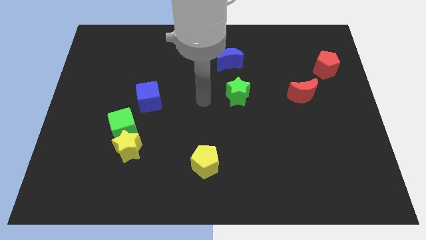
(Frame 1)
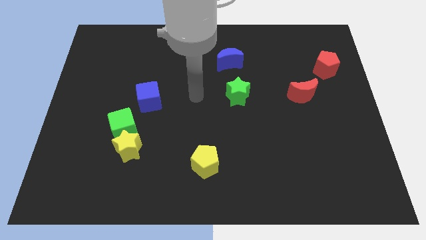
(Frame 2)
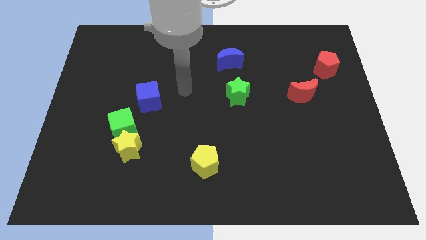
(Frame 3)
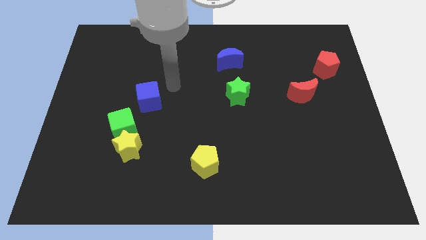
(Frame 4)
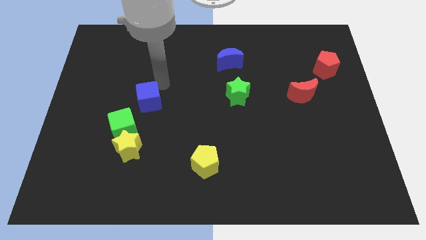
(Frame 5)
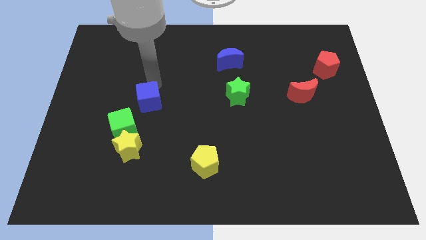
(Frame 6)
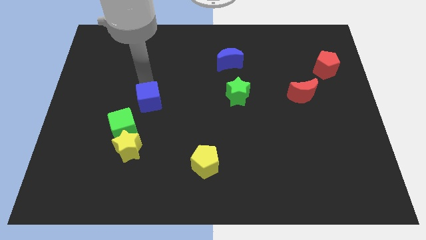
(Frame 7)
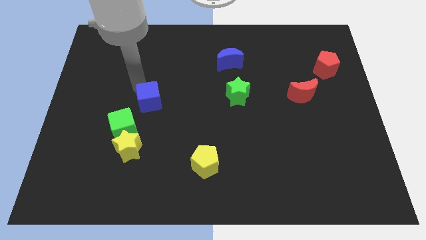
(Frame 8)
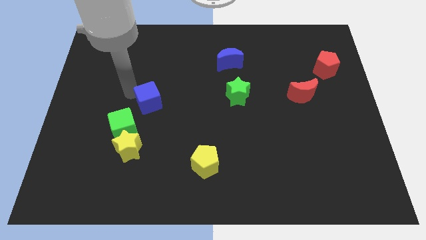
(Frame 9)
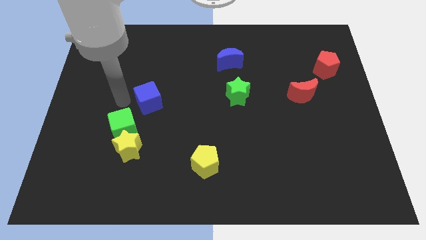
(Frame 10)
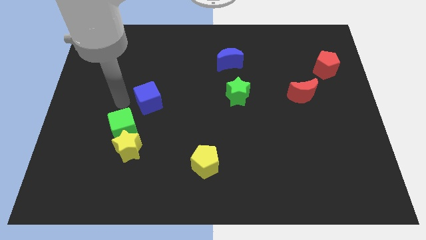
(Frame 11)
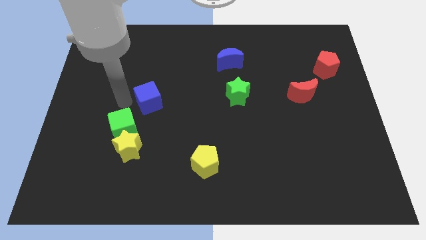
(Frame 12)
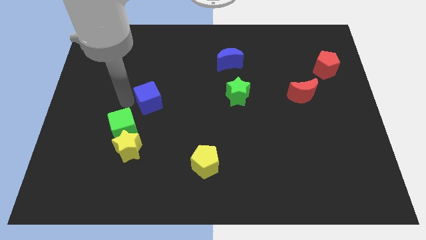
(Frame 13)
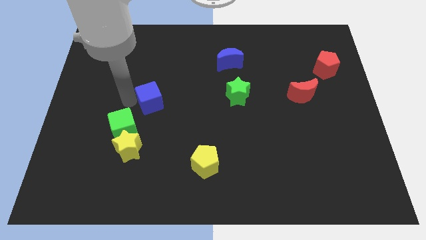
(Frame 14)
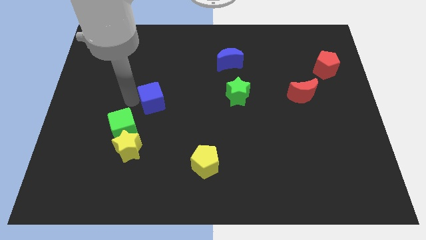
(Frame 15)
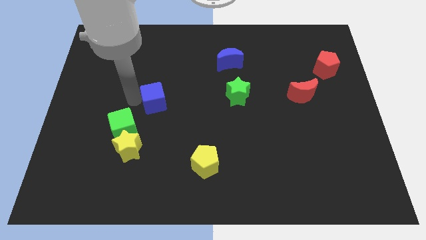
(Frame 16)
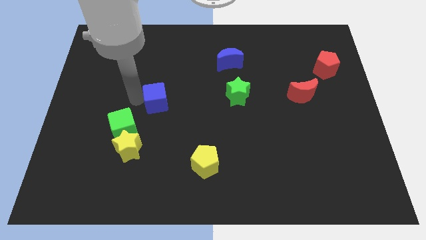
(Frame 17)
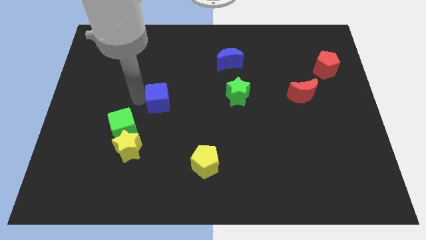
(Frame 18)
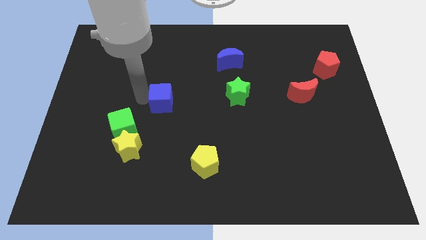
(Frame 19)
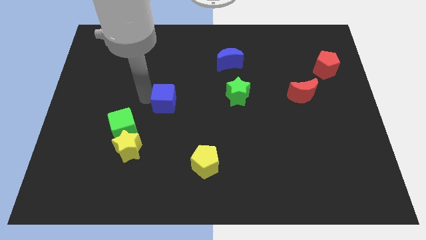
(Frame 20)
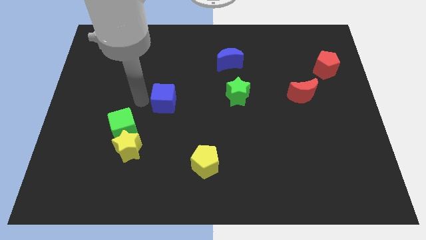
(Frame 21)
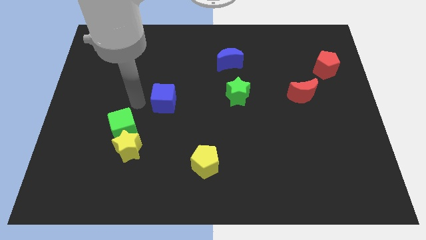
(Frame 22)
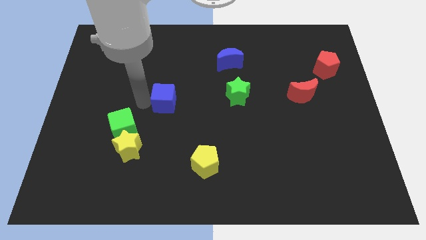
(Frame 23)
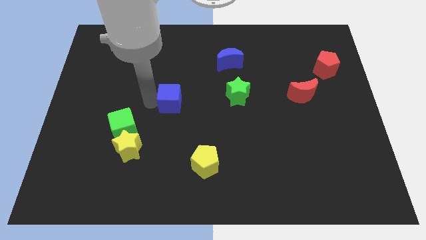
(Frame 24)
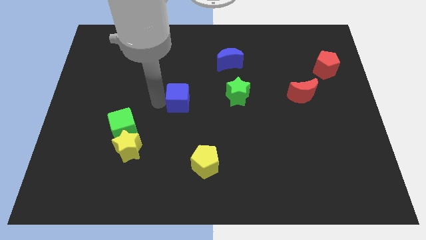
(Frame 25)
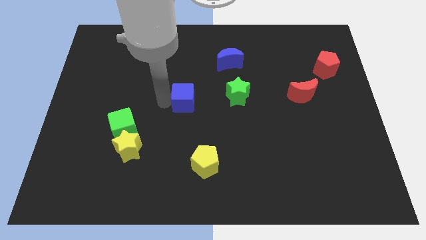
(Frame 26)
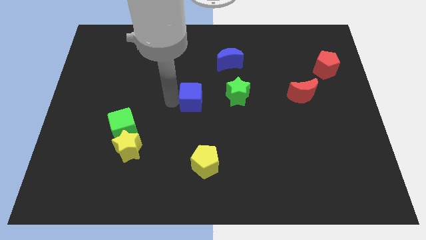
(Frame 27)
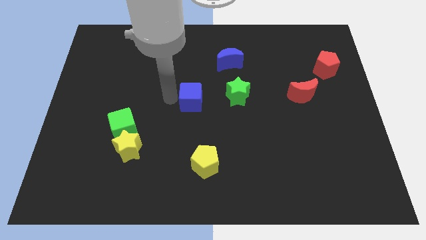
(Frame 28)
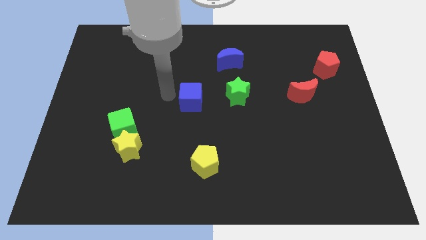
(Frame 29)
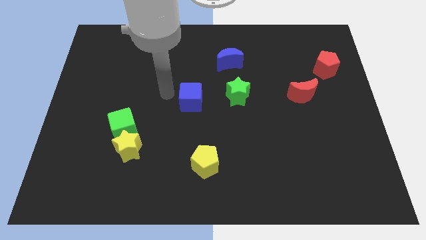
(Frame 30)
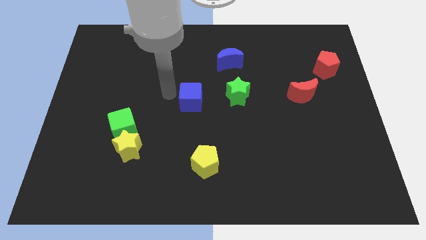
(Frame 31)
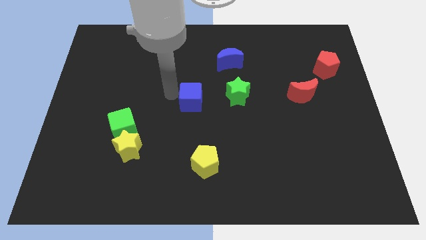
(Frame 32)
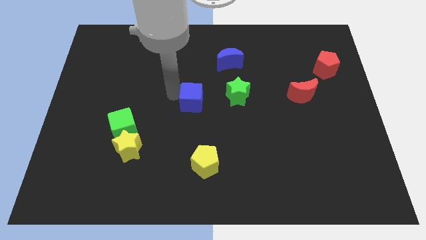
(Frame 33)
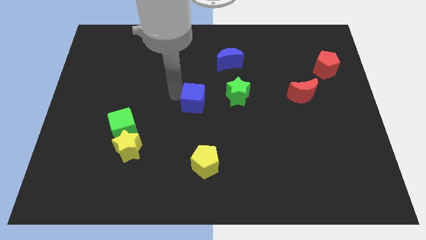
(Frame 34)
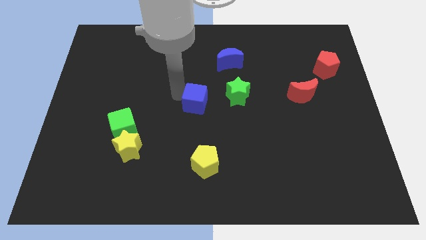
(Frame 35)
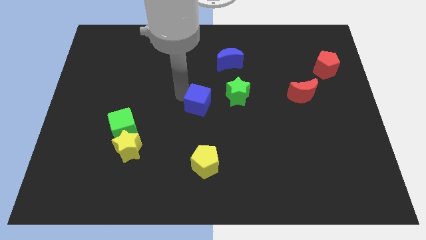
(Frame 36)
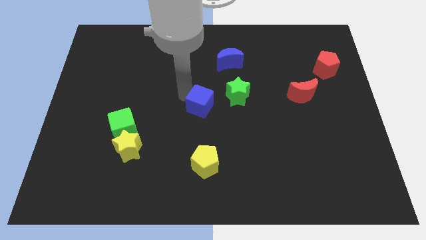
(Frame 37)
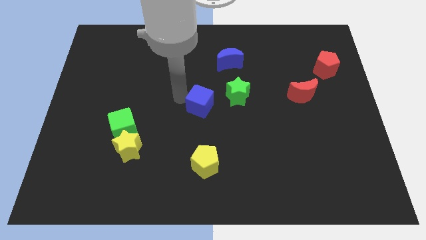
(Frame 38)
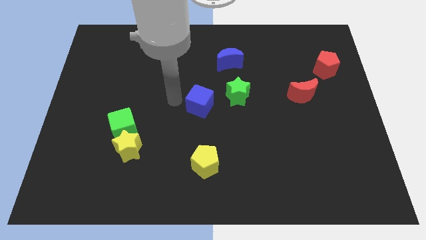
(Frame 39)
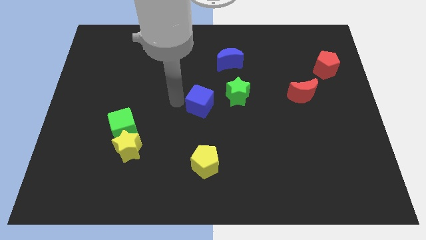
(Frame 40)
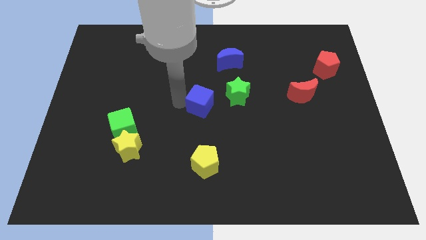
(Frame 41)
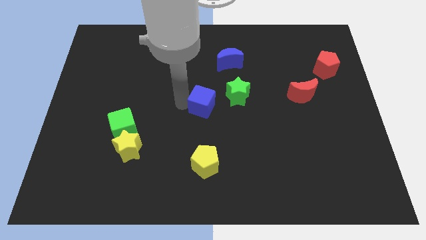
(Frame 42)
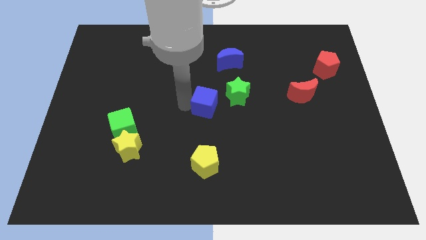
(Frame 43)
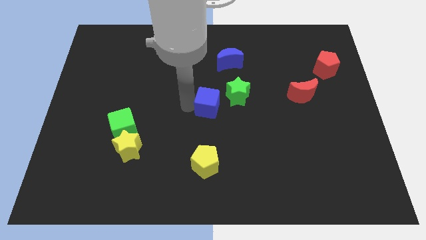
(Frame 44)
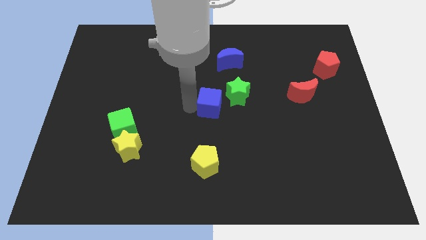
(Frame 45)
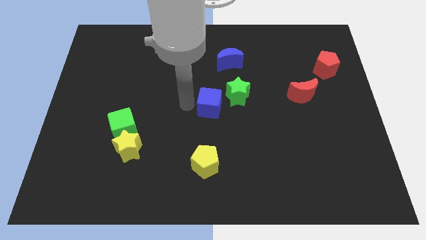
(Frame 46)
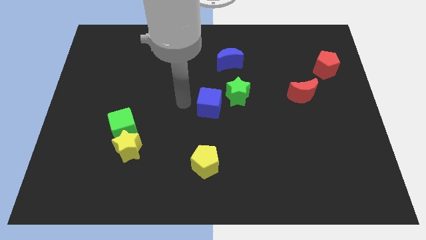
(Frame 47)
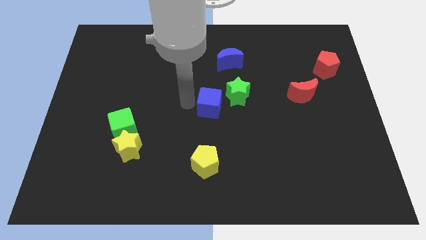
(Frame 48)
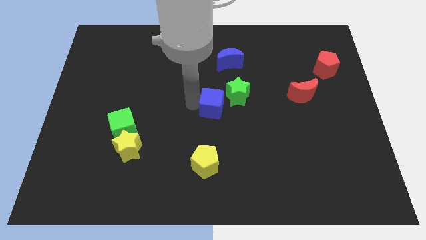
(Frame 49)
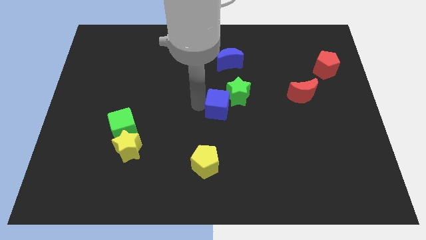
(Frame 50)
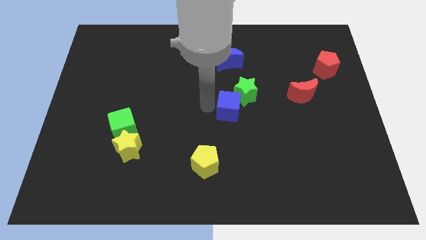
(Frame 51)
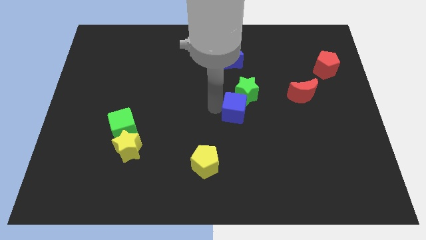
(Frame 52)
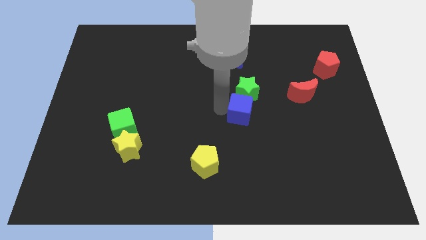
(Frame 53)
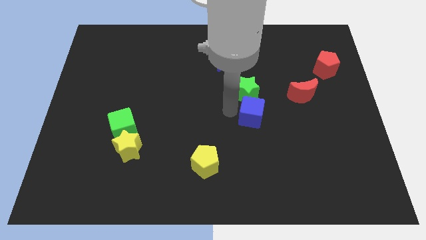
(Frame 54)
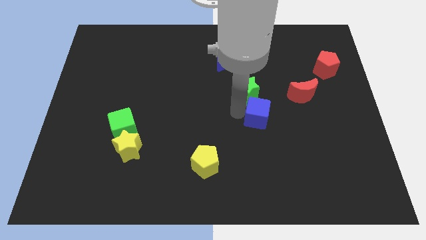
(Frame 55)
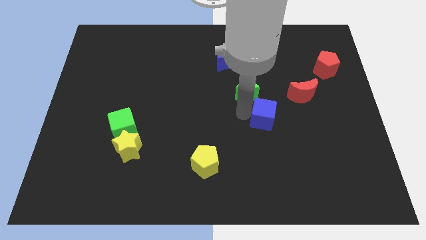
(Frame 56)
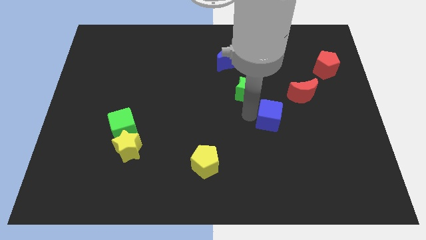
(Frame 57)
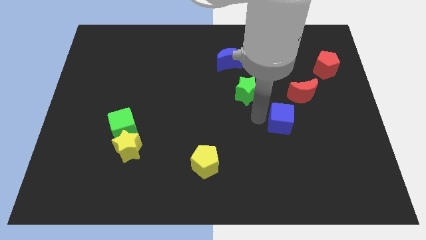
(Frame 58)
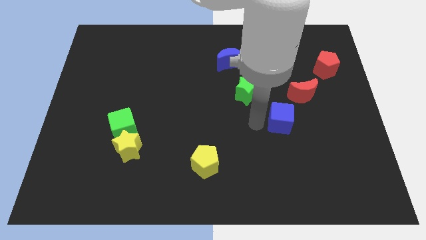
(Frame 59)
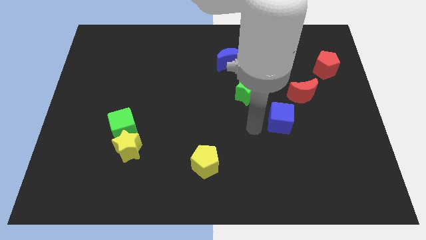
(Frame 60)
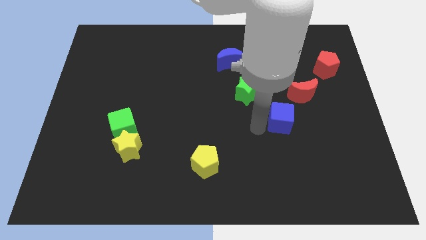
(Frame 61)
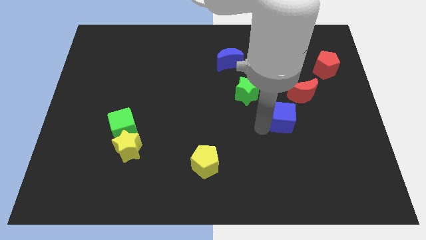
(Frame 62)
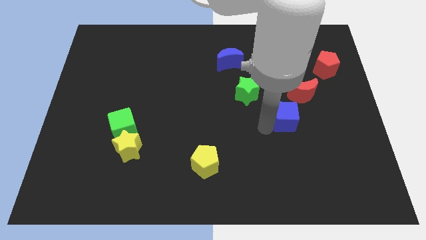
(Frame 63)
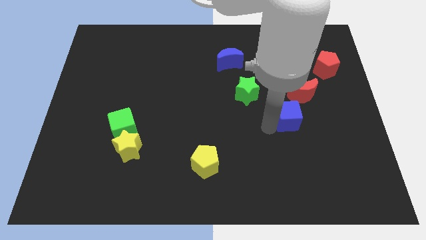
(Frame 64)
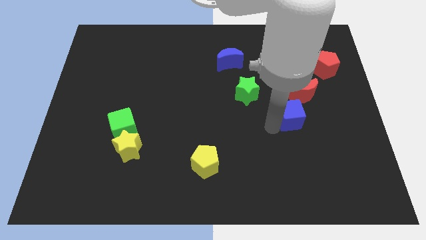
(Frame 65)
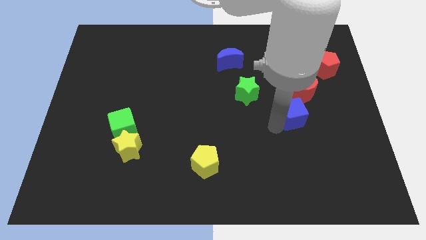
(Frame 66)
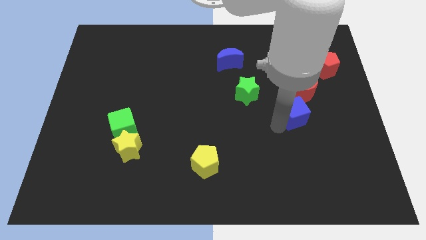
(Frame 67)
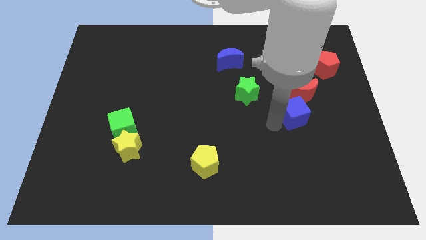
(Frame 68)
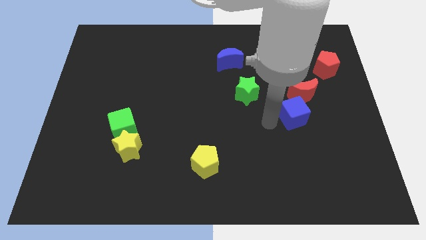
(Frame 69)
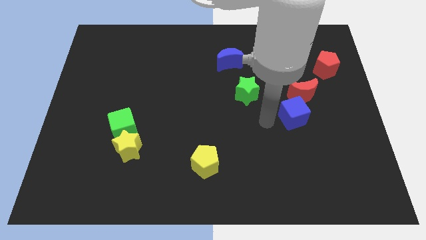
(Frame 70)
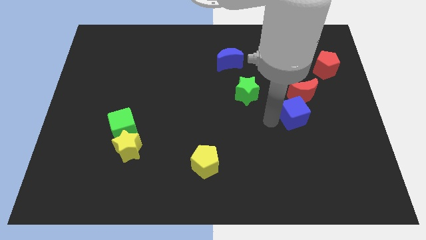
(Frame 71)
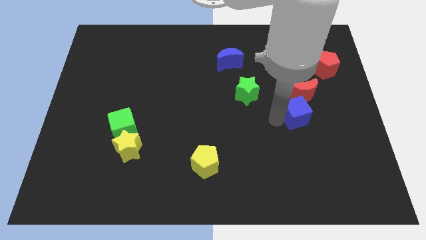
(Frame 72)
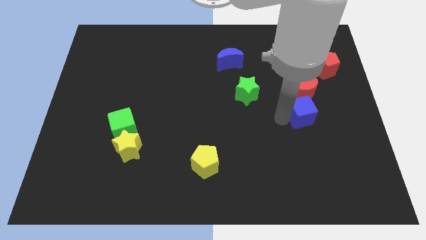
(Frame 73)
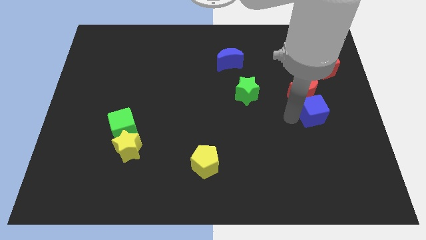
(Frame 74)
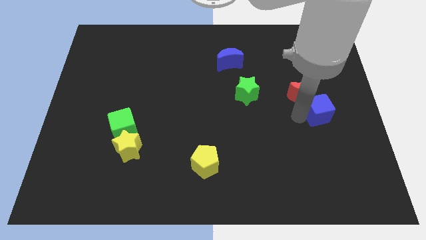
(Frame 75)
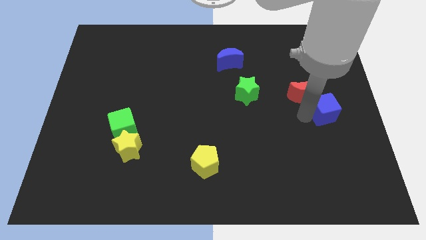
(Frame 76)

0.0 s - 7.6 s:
move the blue cube to the center right

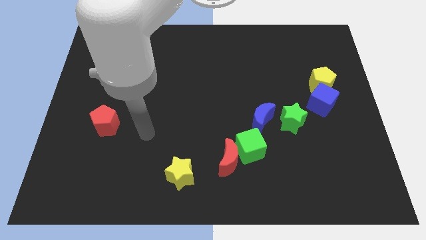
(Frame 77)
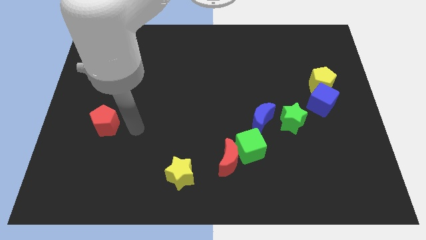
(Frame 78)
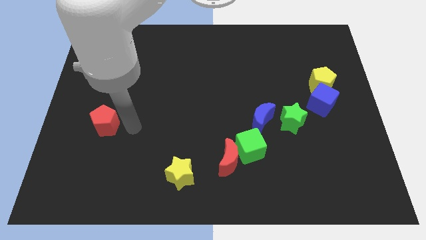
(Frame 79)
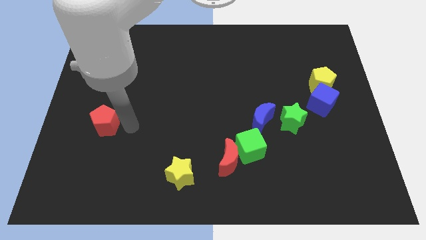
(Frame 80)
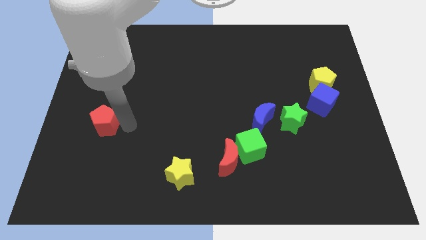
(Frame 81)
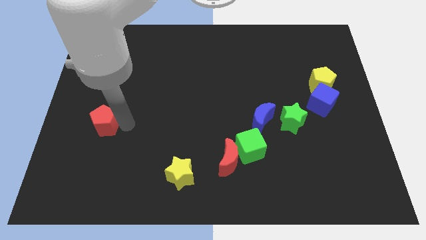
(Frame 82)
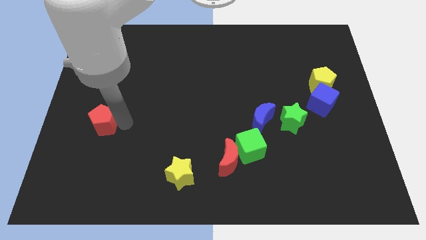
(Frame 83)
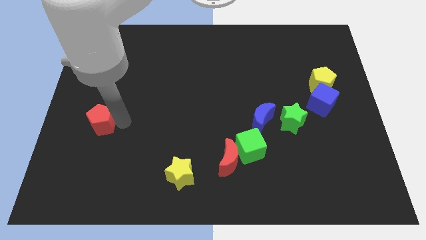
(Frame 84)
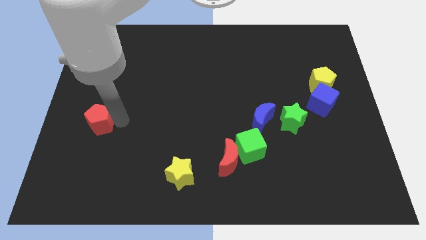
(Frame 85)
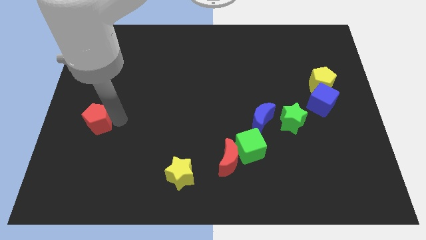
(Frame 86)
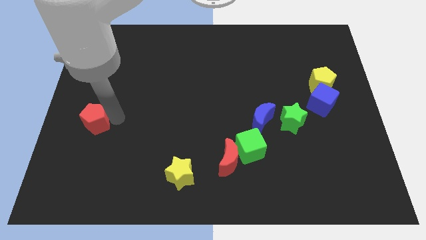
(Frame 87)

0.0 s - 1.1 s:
slide the red pentagon to the left side
